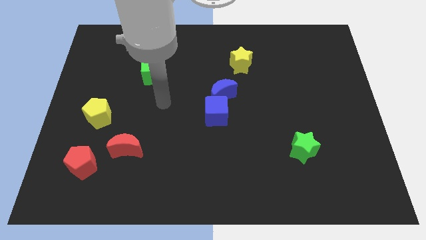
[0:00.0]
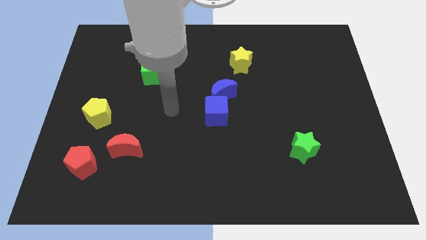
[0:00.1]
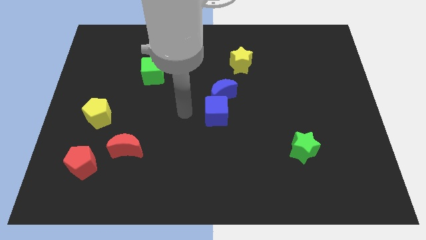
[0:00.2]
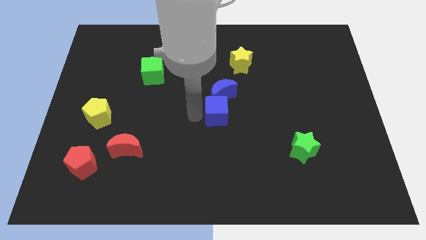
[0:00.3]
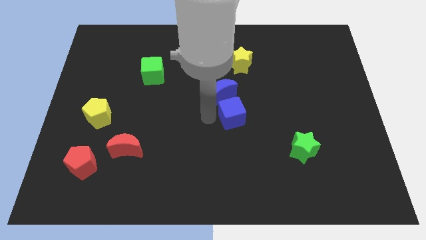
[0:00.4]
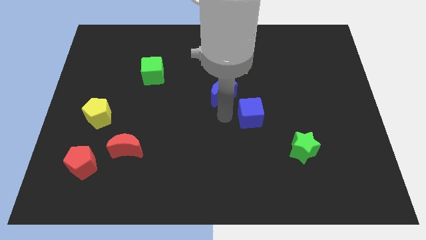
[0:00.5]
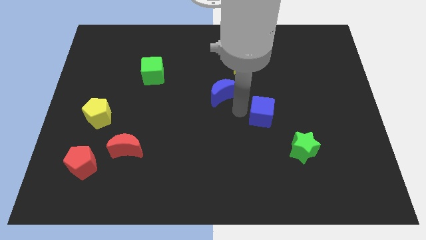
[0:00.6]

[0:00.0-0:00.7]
pull the blue moon apart from the blue cube

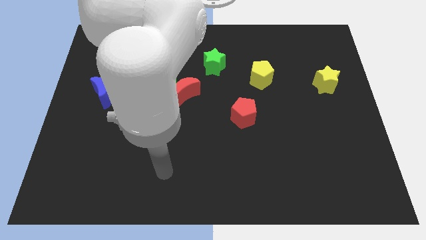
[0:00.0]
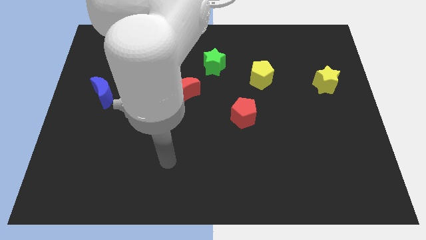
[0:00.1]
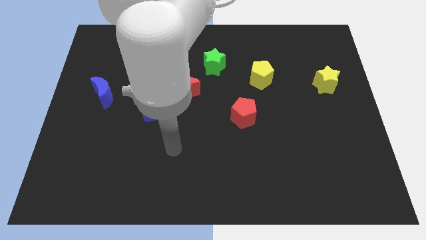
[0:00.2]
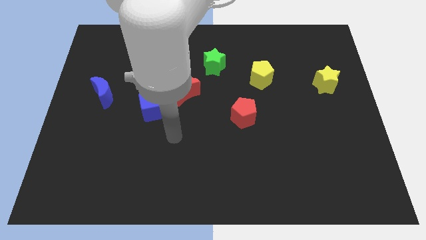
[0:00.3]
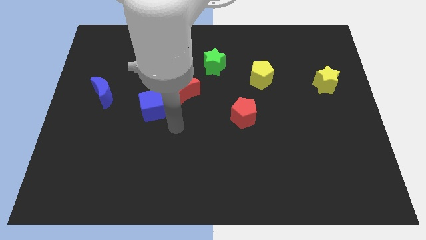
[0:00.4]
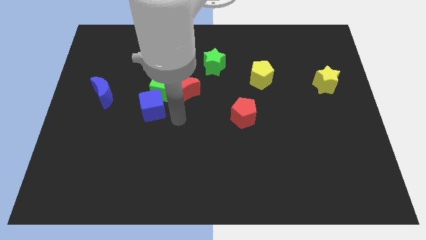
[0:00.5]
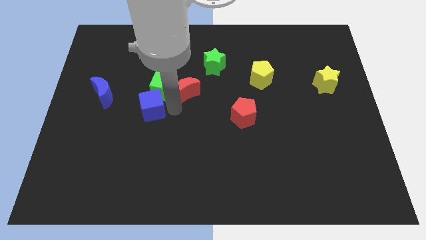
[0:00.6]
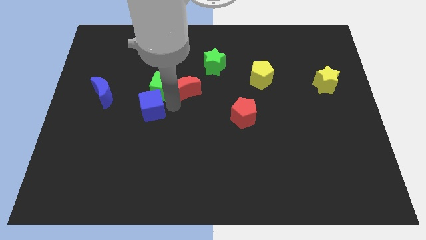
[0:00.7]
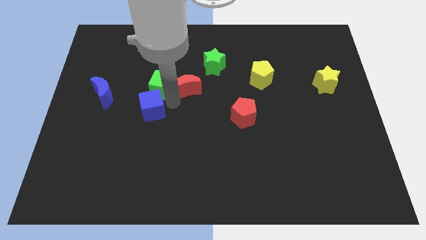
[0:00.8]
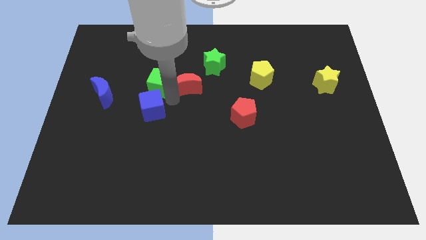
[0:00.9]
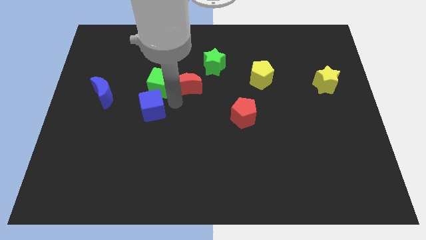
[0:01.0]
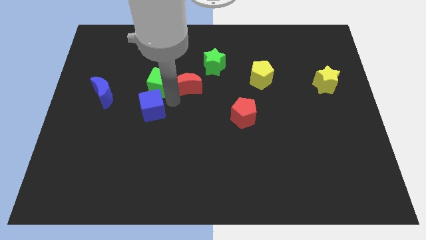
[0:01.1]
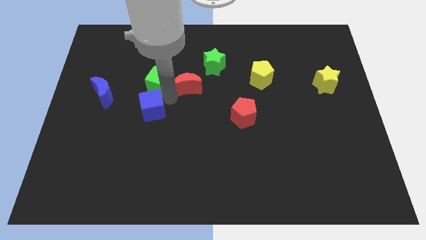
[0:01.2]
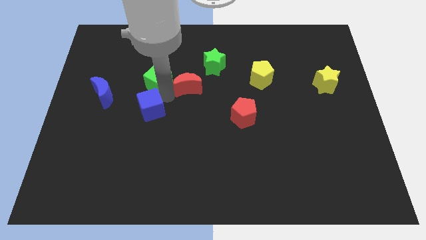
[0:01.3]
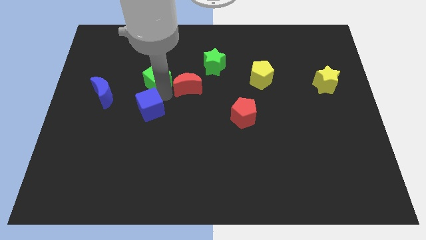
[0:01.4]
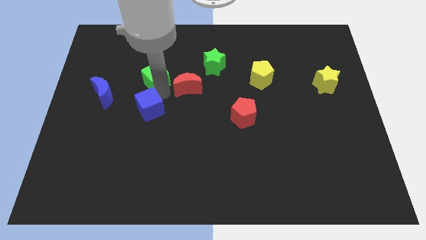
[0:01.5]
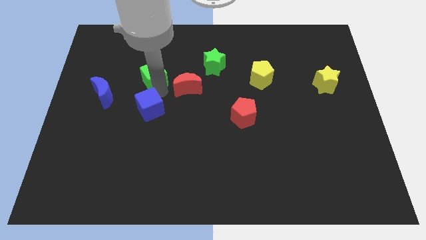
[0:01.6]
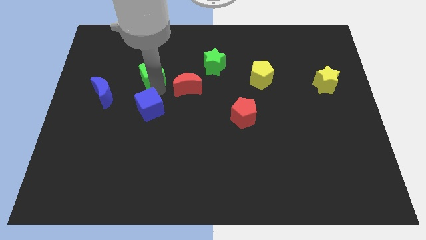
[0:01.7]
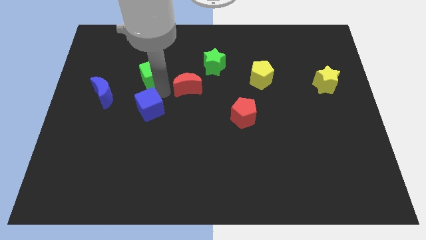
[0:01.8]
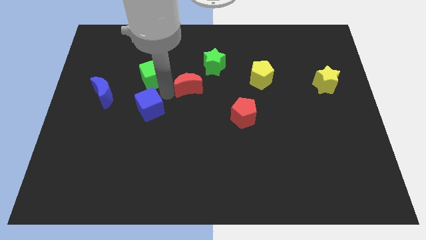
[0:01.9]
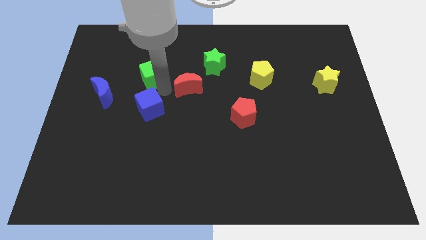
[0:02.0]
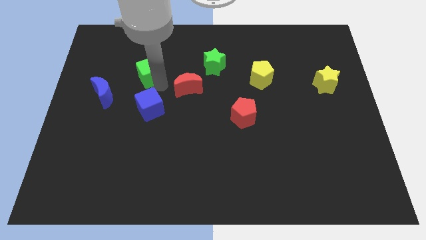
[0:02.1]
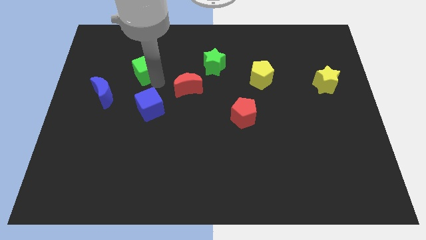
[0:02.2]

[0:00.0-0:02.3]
move the green cube away from the red moon and blue cube

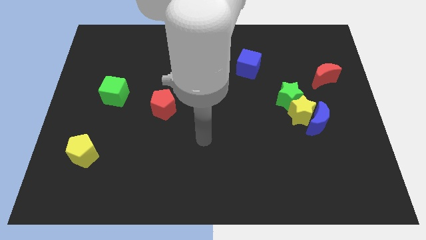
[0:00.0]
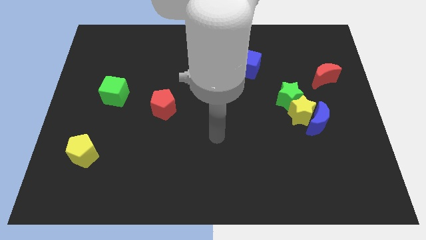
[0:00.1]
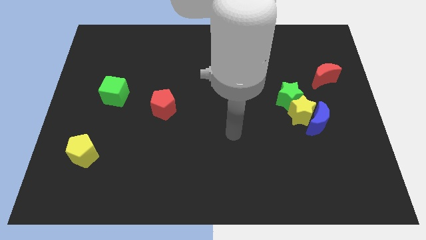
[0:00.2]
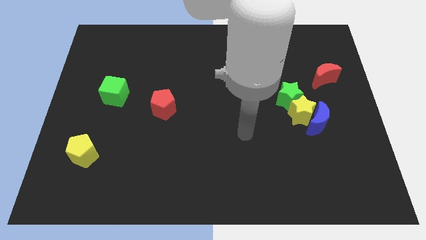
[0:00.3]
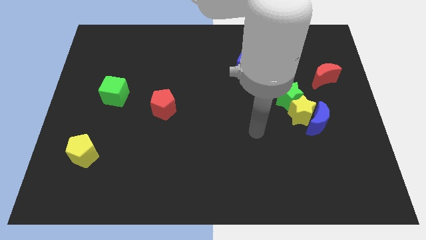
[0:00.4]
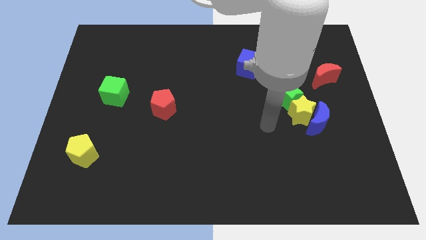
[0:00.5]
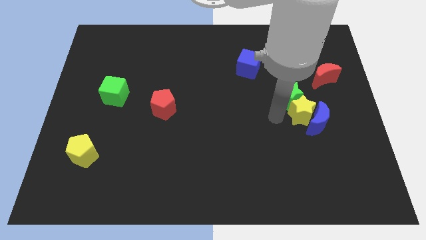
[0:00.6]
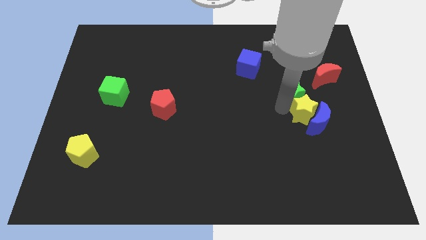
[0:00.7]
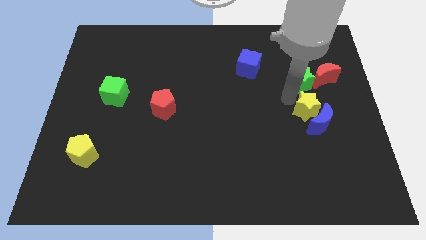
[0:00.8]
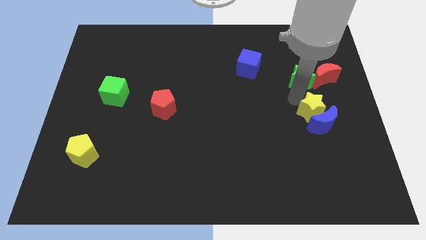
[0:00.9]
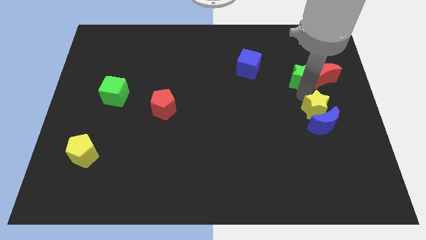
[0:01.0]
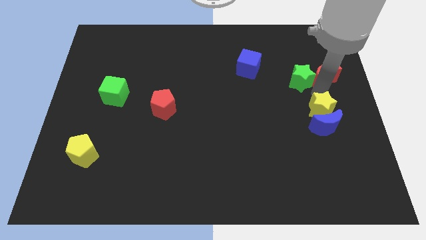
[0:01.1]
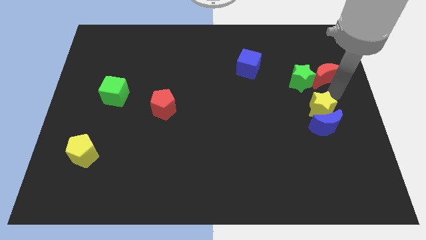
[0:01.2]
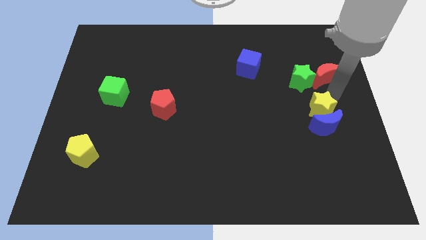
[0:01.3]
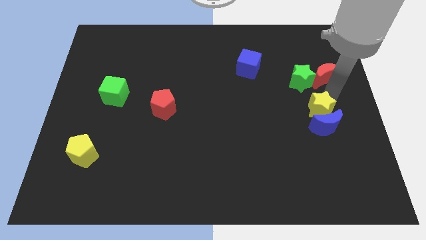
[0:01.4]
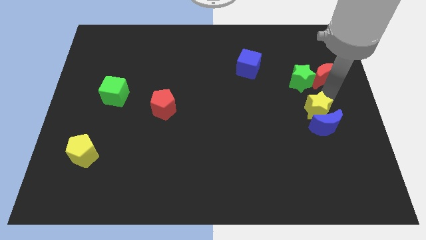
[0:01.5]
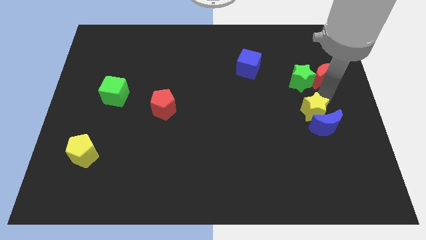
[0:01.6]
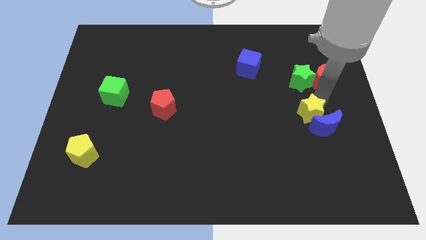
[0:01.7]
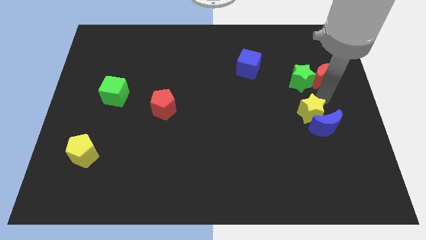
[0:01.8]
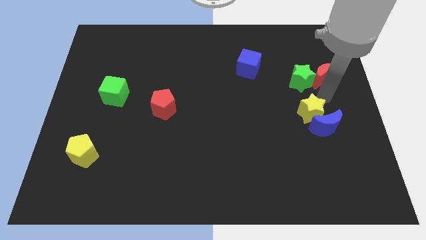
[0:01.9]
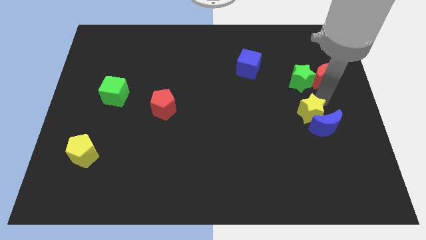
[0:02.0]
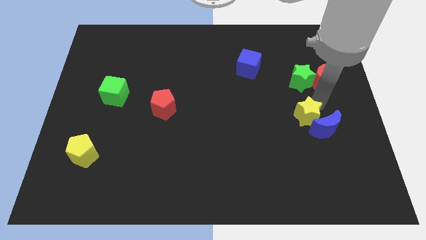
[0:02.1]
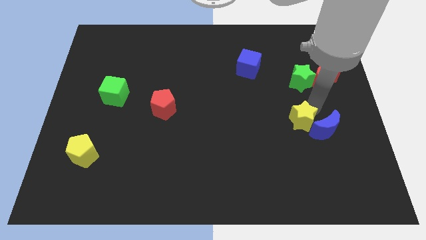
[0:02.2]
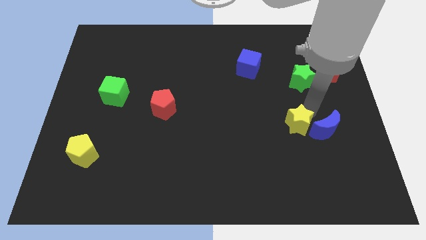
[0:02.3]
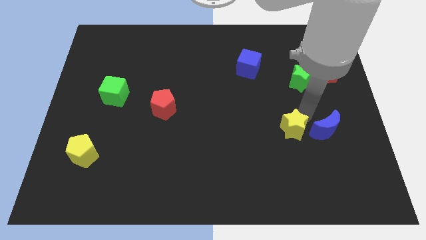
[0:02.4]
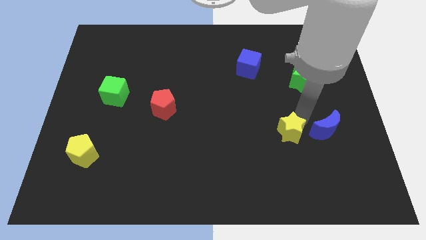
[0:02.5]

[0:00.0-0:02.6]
separate the yellow star from the blue moon and green star

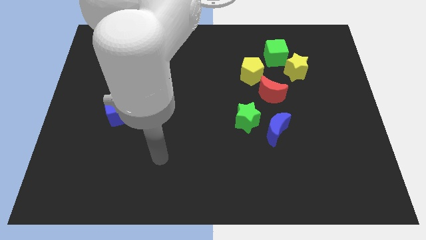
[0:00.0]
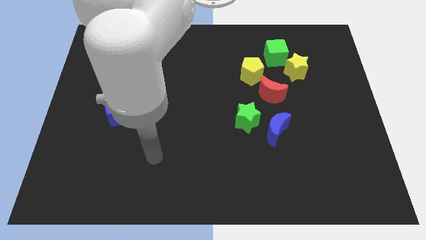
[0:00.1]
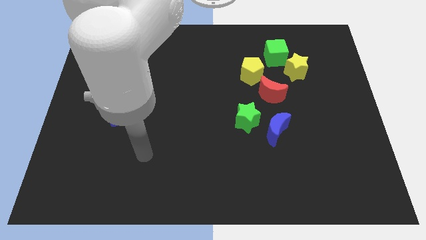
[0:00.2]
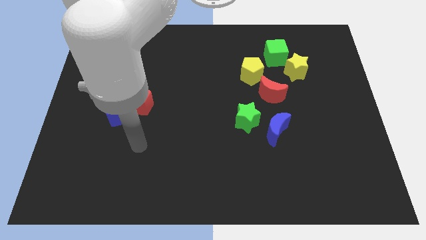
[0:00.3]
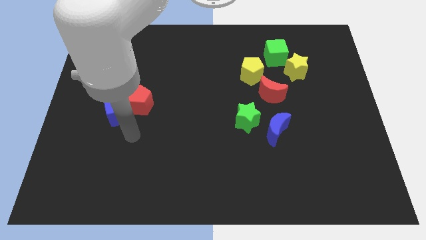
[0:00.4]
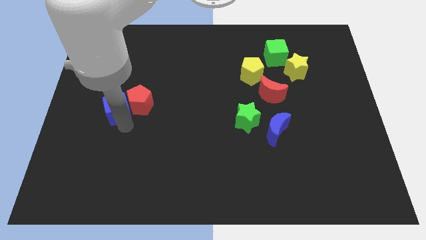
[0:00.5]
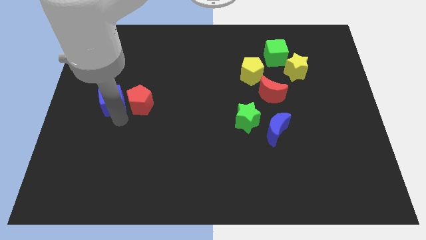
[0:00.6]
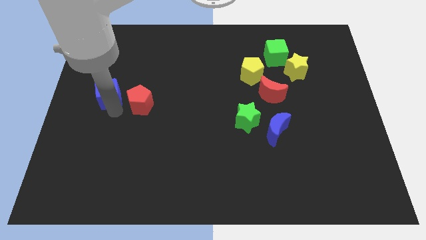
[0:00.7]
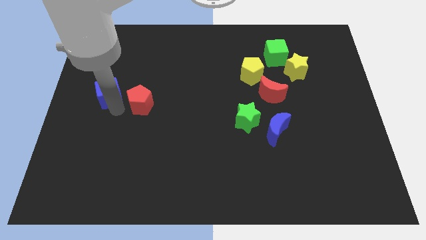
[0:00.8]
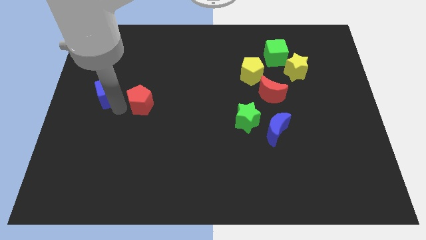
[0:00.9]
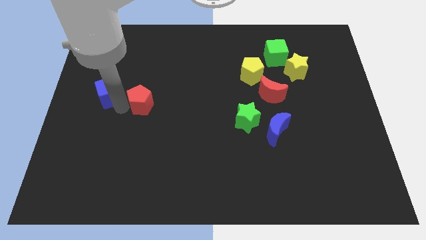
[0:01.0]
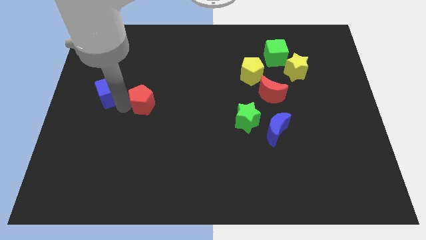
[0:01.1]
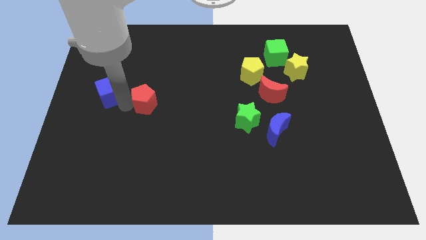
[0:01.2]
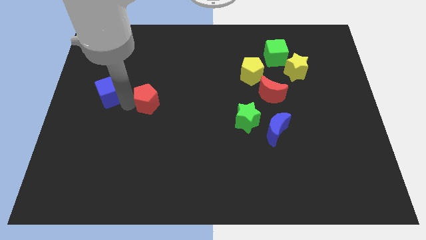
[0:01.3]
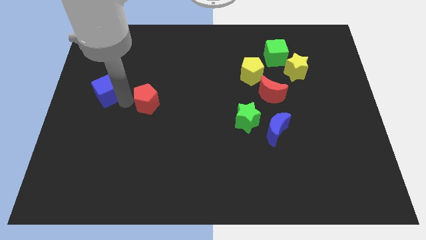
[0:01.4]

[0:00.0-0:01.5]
pull the red pentagon apart from the blue cube

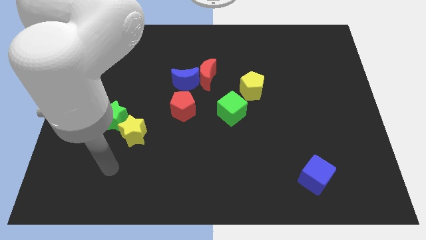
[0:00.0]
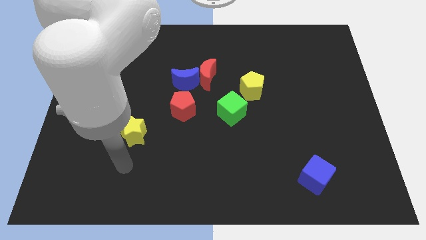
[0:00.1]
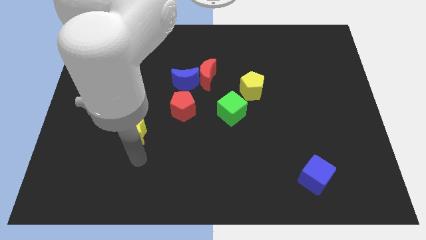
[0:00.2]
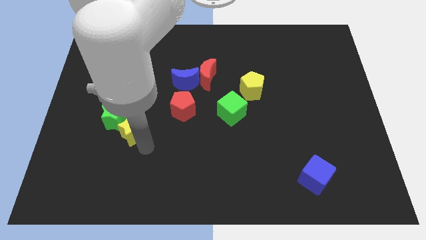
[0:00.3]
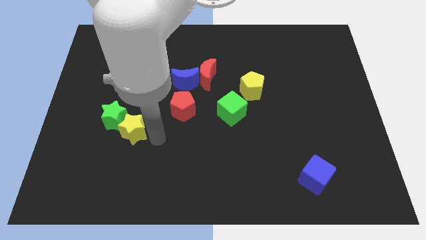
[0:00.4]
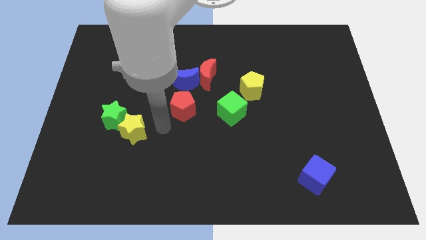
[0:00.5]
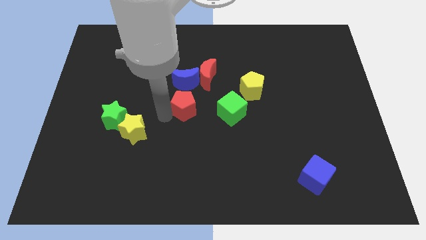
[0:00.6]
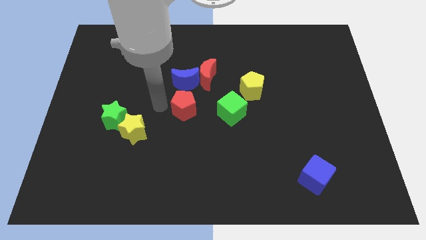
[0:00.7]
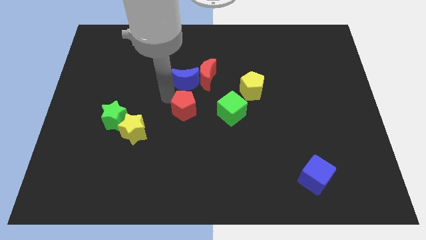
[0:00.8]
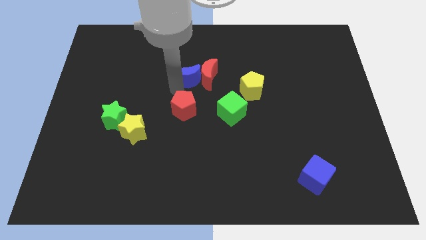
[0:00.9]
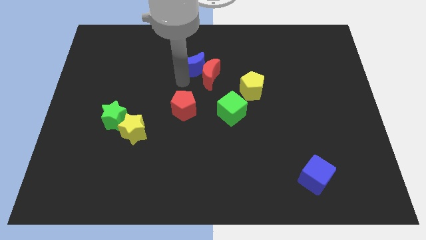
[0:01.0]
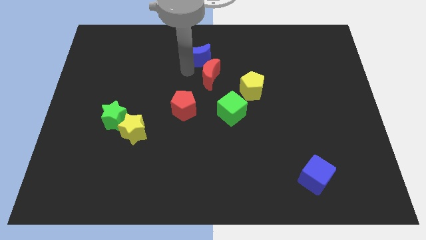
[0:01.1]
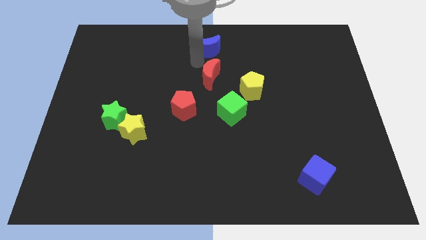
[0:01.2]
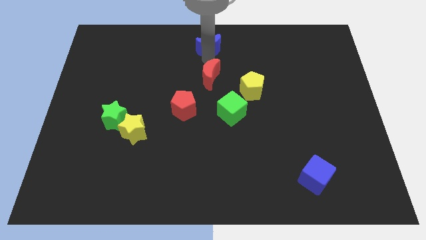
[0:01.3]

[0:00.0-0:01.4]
separate the red moon from the blue moon

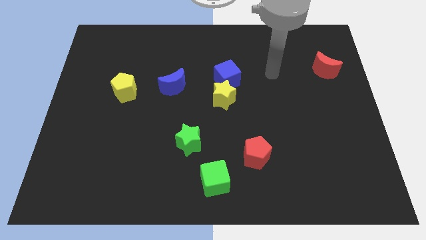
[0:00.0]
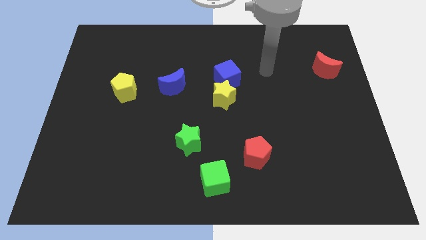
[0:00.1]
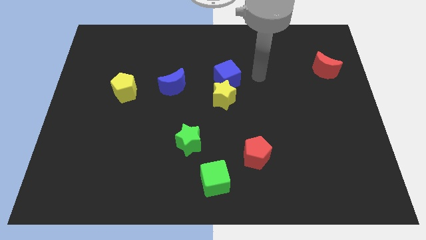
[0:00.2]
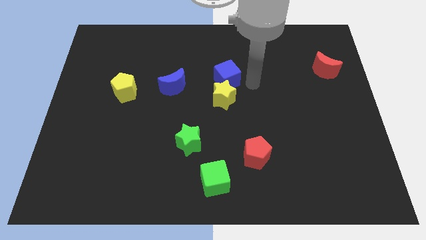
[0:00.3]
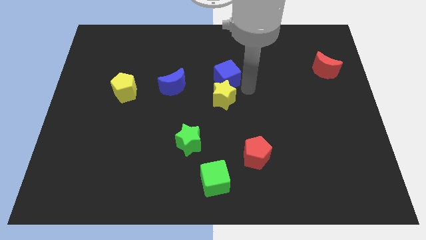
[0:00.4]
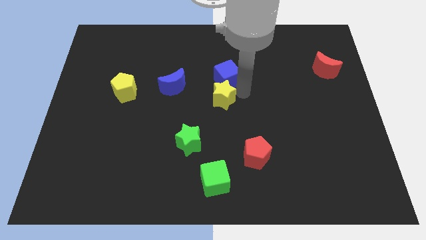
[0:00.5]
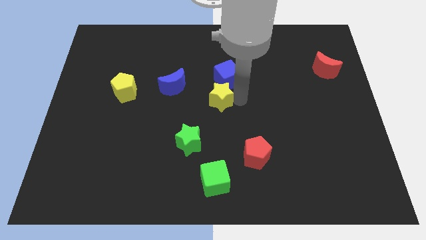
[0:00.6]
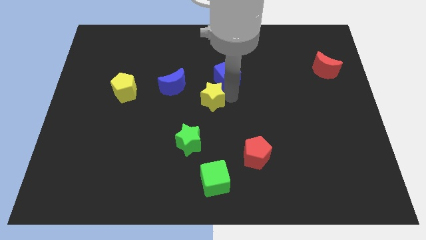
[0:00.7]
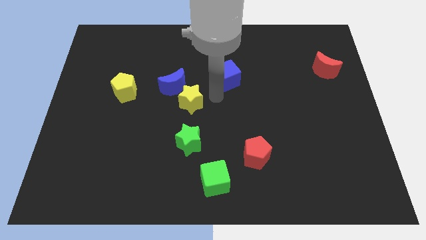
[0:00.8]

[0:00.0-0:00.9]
pull the blue cube apart from the yellow star
